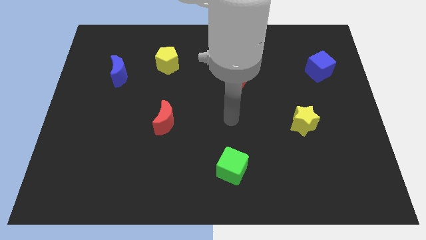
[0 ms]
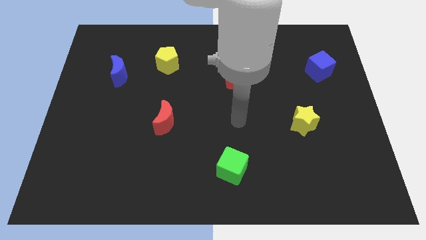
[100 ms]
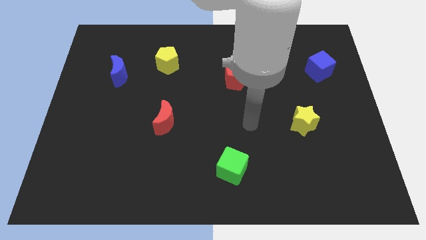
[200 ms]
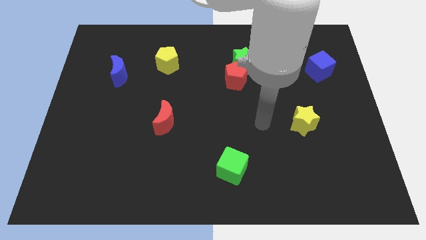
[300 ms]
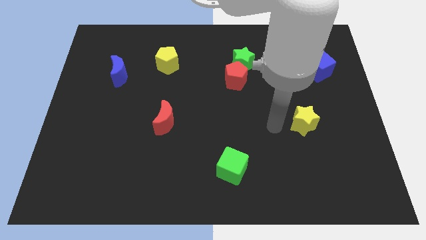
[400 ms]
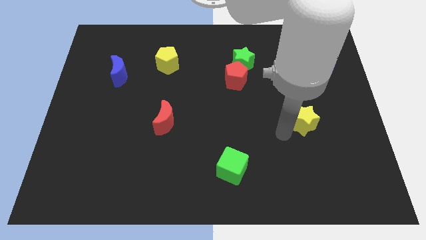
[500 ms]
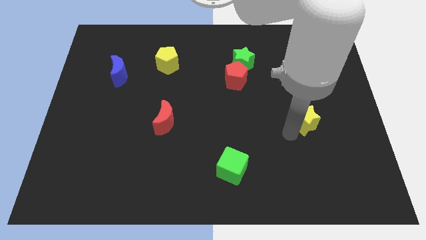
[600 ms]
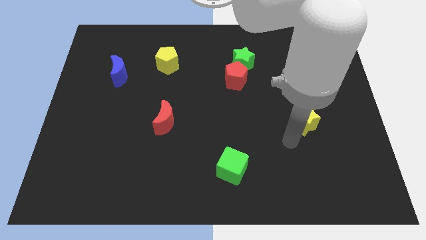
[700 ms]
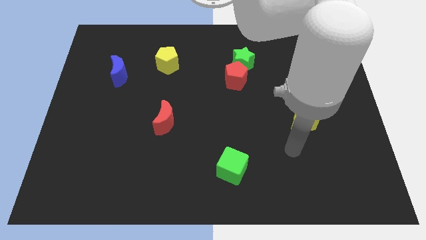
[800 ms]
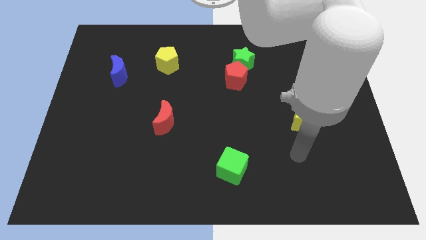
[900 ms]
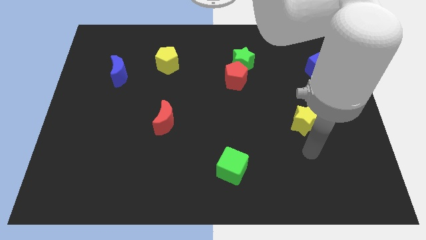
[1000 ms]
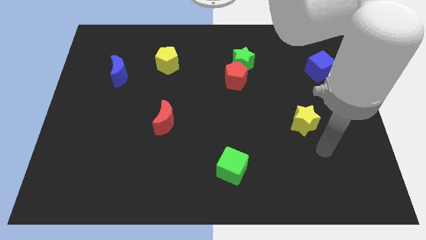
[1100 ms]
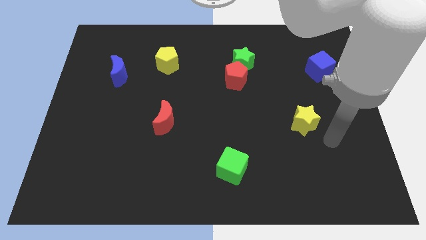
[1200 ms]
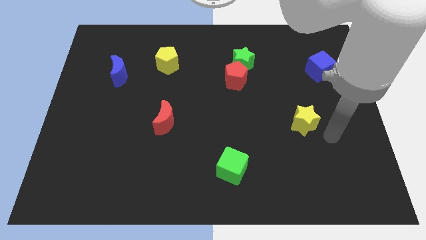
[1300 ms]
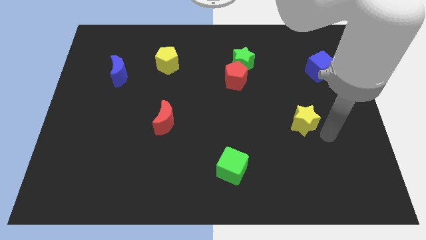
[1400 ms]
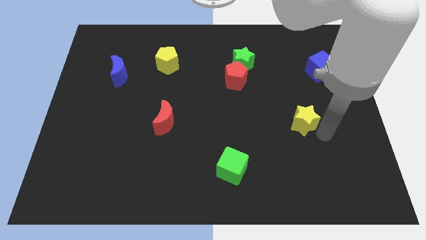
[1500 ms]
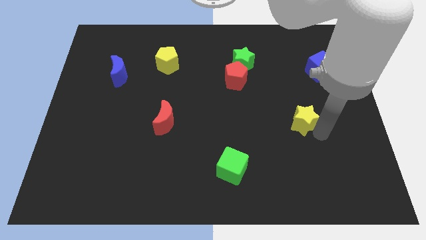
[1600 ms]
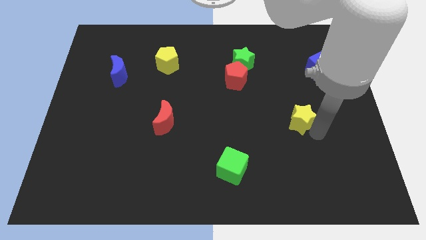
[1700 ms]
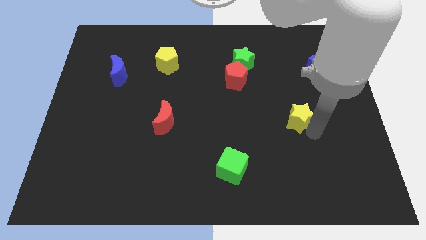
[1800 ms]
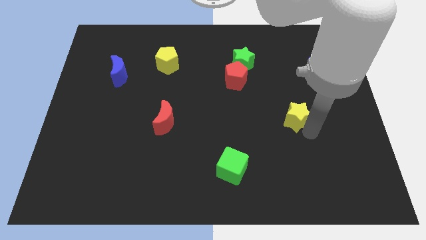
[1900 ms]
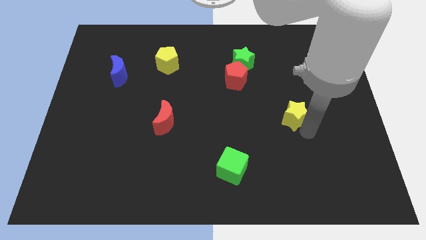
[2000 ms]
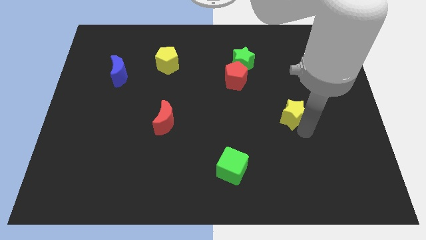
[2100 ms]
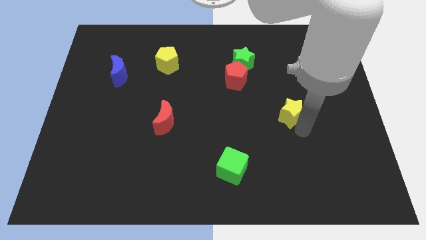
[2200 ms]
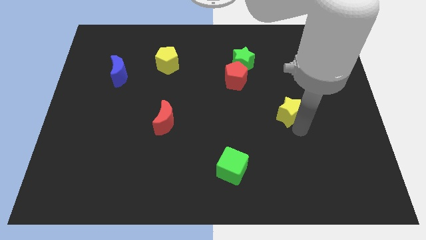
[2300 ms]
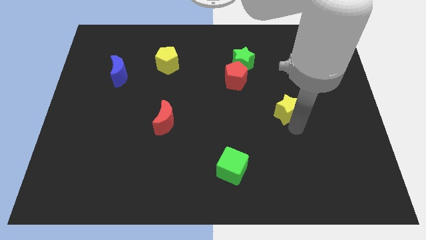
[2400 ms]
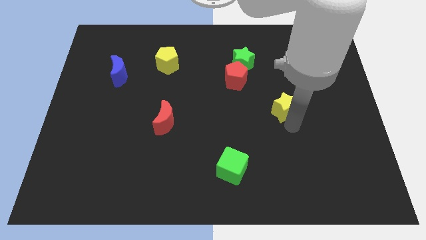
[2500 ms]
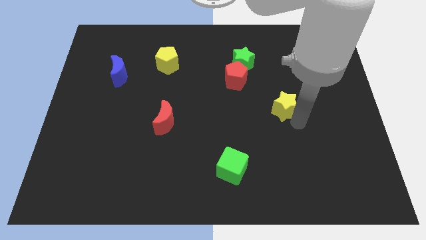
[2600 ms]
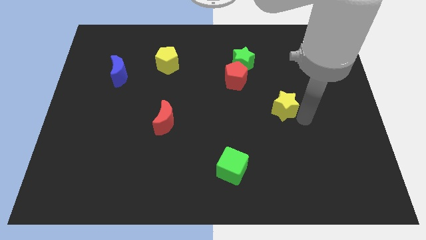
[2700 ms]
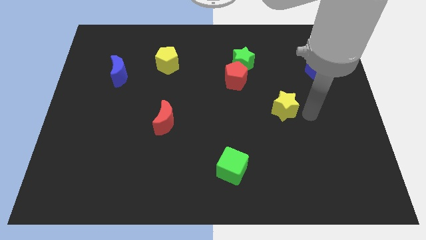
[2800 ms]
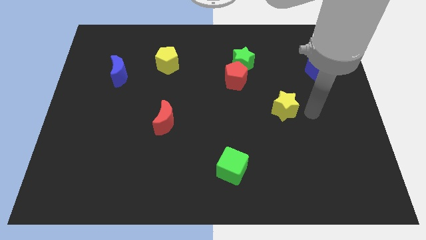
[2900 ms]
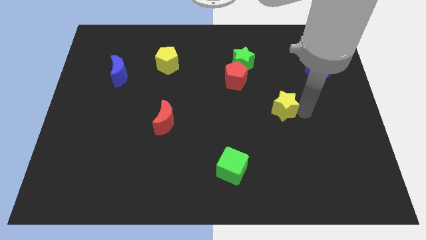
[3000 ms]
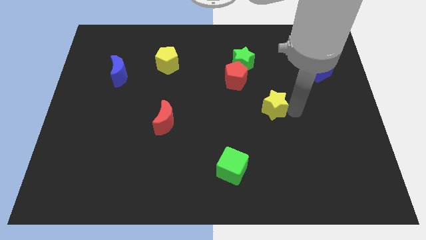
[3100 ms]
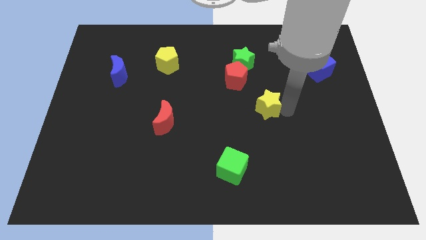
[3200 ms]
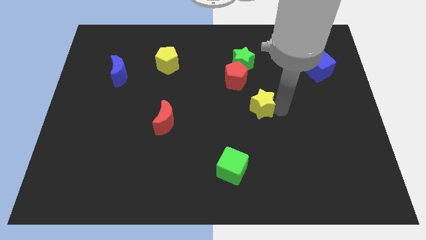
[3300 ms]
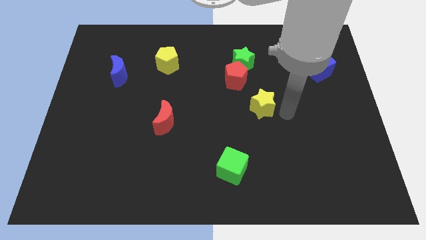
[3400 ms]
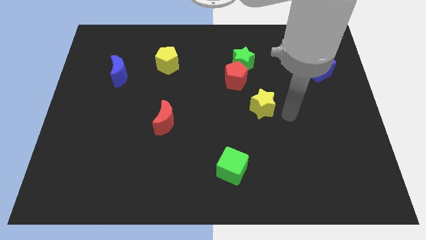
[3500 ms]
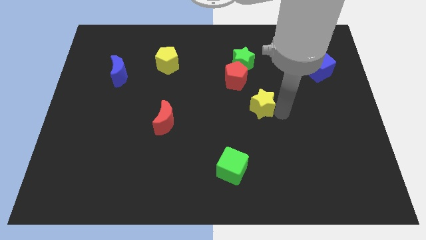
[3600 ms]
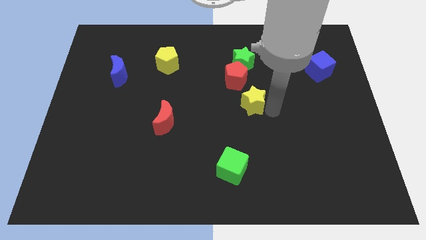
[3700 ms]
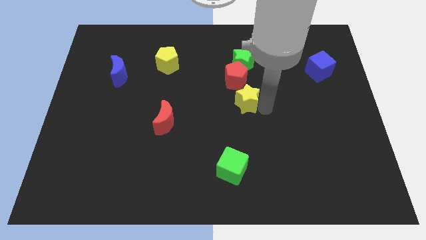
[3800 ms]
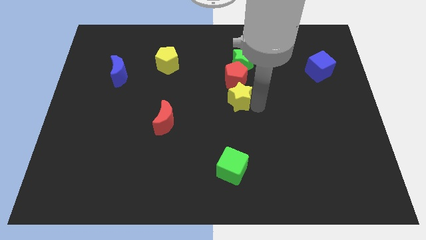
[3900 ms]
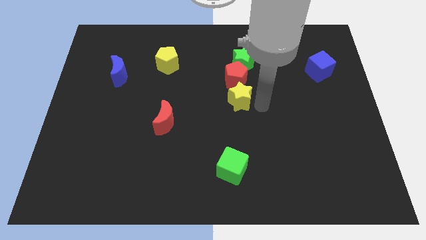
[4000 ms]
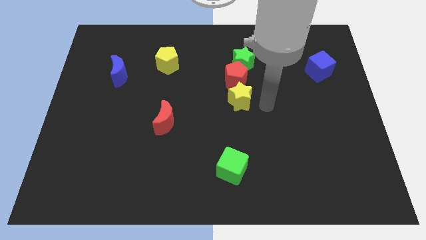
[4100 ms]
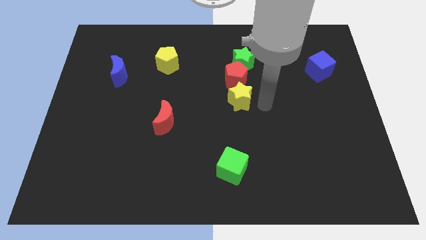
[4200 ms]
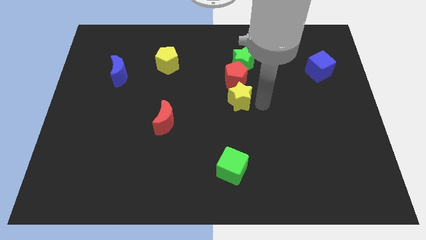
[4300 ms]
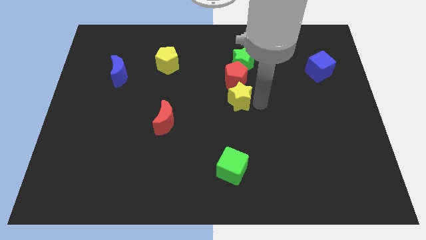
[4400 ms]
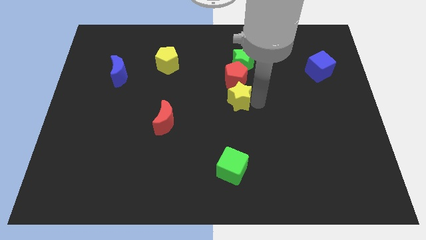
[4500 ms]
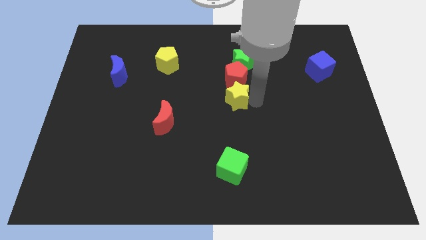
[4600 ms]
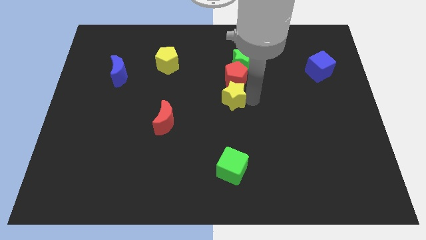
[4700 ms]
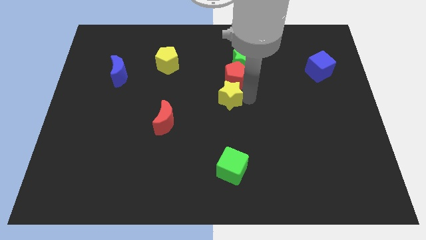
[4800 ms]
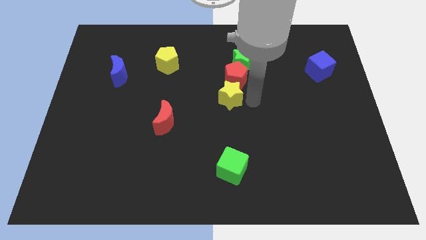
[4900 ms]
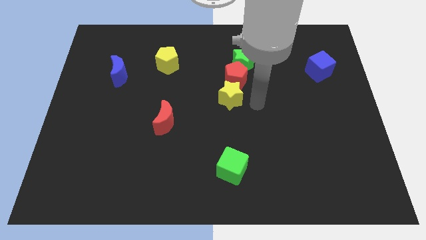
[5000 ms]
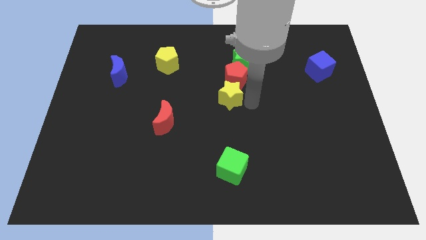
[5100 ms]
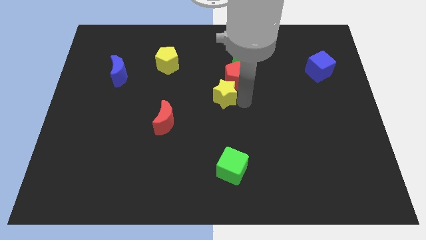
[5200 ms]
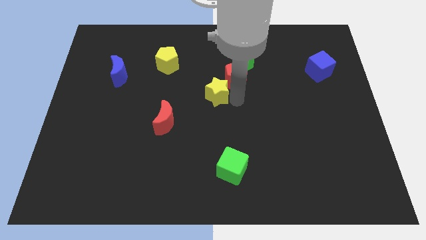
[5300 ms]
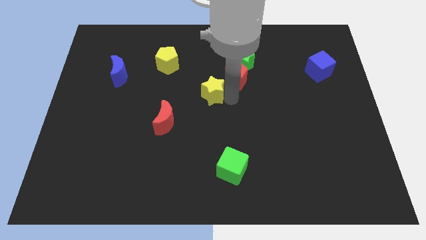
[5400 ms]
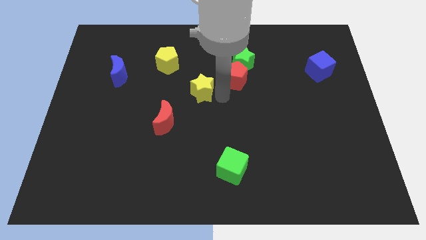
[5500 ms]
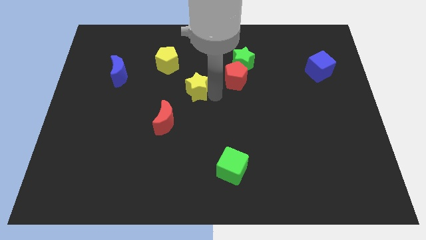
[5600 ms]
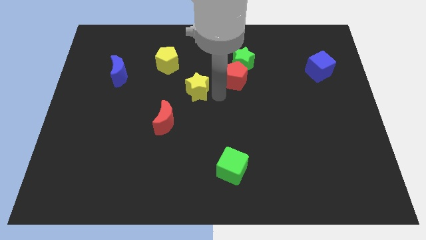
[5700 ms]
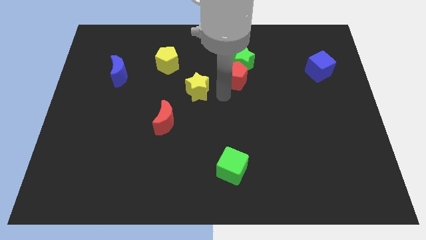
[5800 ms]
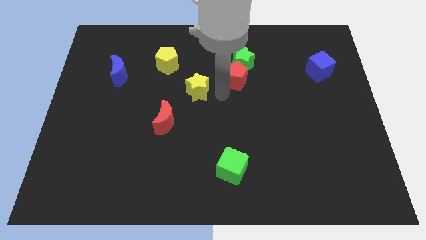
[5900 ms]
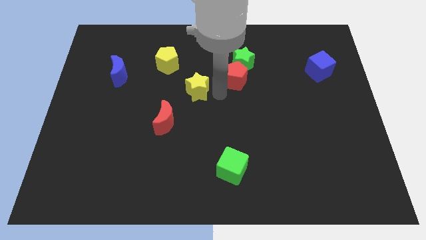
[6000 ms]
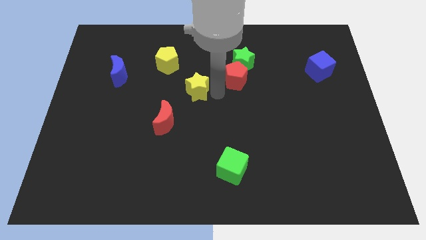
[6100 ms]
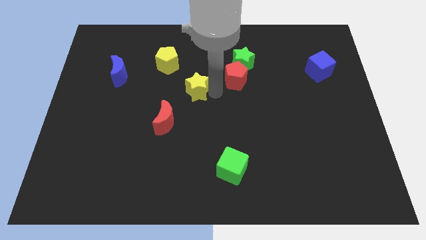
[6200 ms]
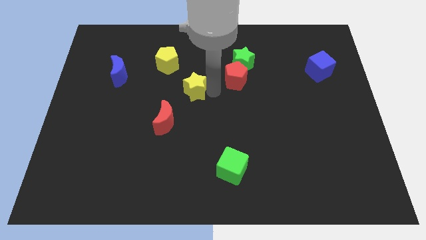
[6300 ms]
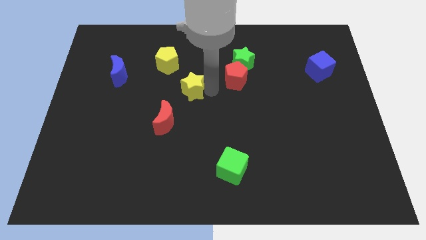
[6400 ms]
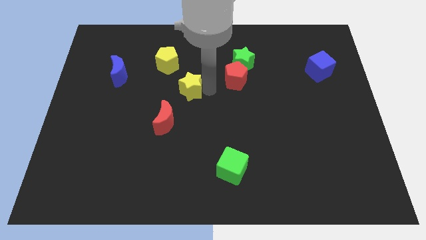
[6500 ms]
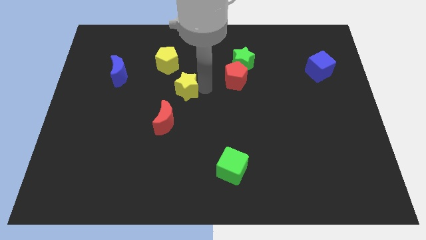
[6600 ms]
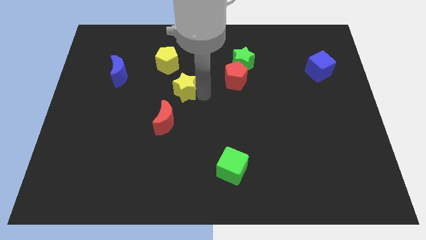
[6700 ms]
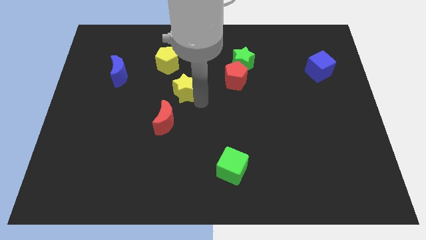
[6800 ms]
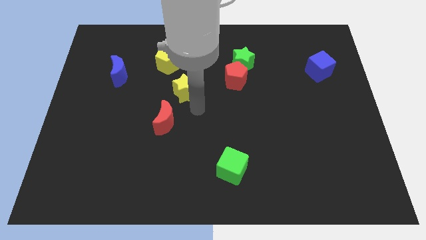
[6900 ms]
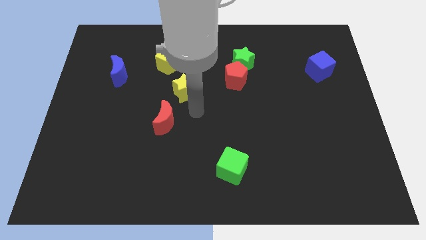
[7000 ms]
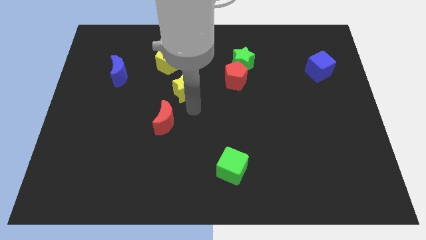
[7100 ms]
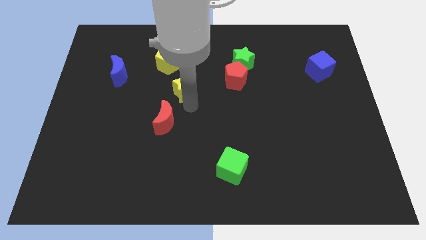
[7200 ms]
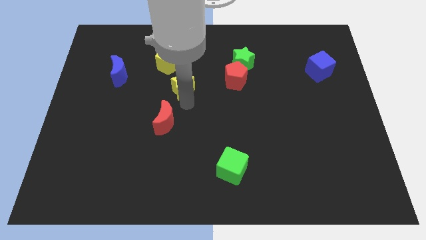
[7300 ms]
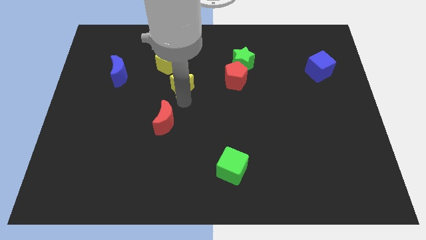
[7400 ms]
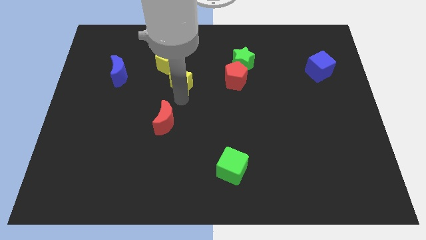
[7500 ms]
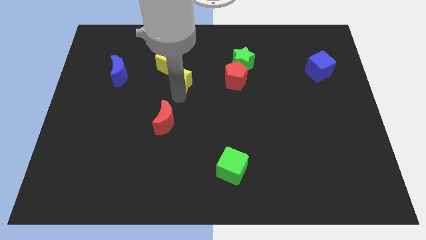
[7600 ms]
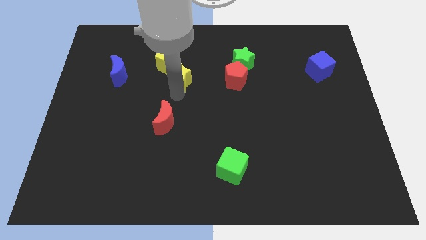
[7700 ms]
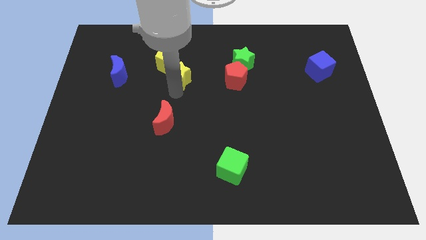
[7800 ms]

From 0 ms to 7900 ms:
move the yellow star to the yellow pentagon

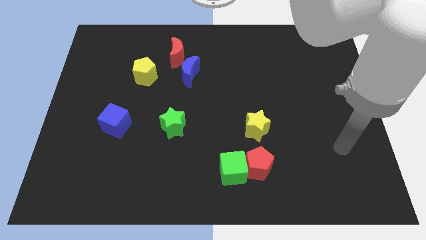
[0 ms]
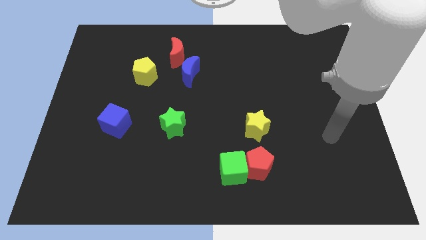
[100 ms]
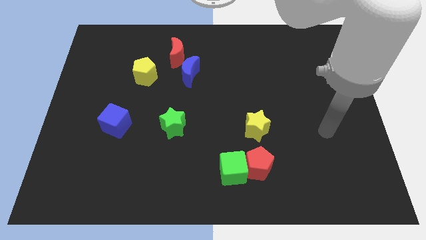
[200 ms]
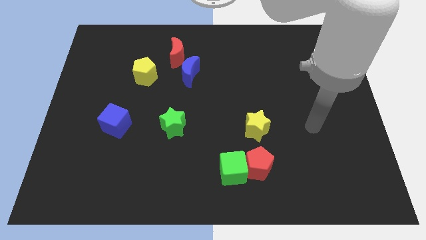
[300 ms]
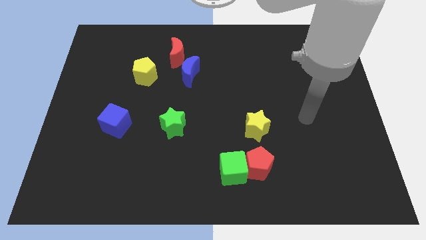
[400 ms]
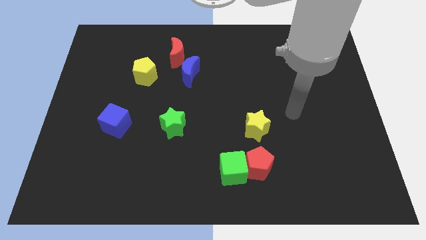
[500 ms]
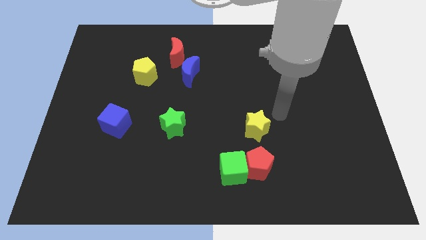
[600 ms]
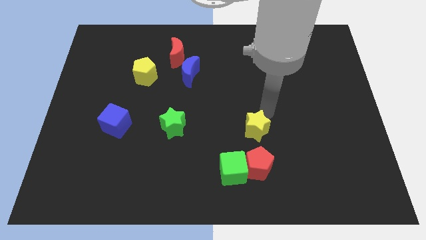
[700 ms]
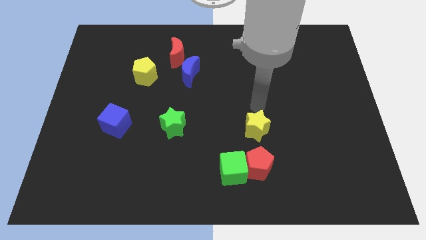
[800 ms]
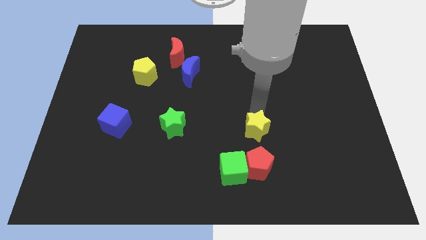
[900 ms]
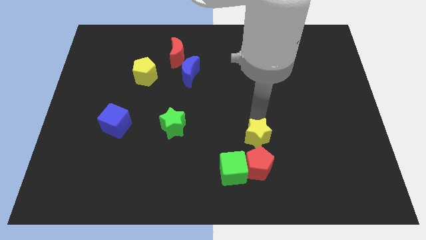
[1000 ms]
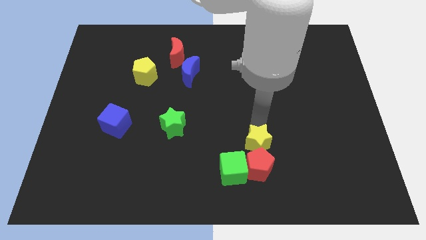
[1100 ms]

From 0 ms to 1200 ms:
move the yellow star to the red pentagon
